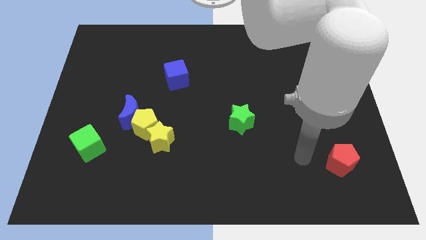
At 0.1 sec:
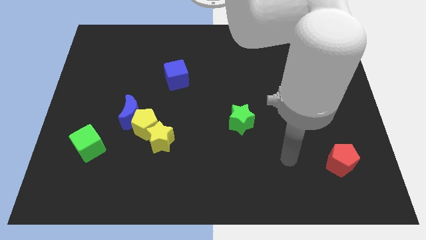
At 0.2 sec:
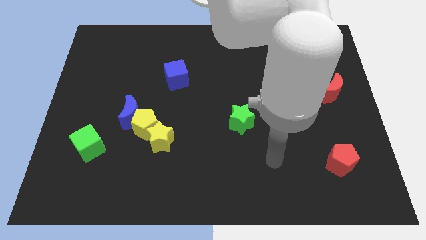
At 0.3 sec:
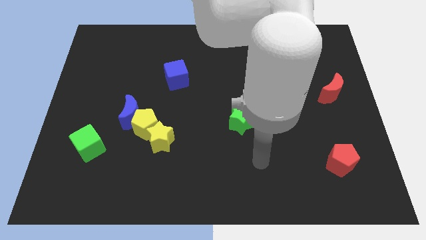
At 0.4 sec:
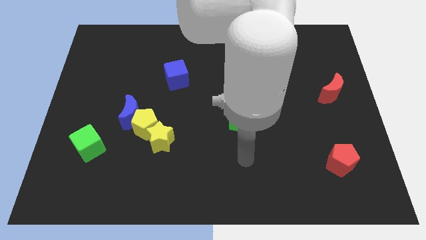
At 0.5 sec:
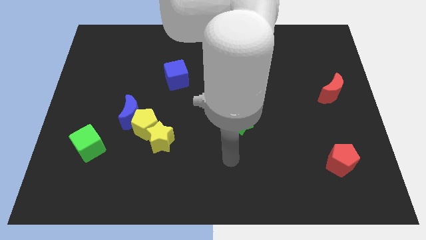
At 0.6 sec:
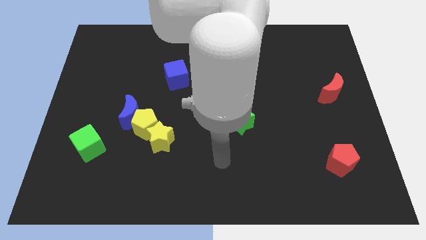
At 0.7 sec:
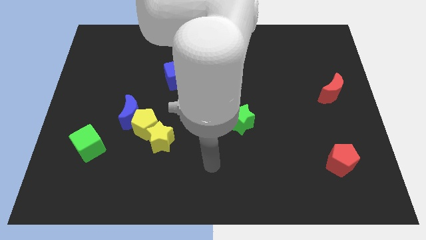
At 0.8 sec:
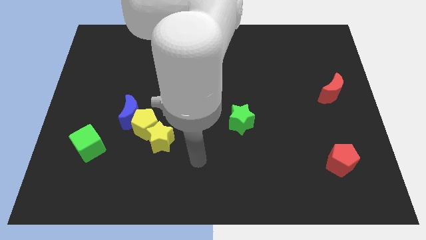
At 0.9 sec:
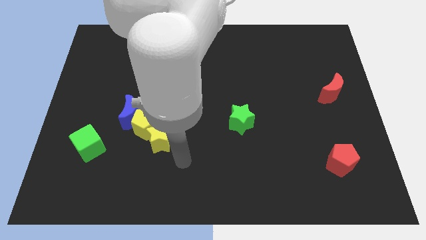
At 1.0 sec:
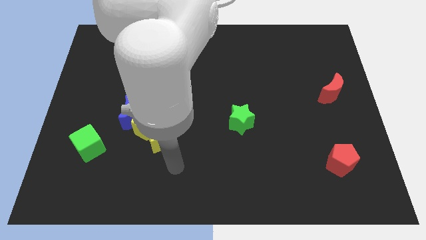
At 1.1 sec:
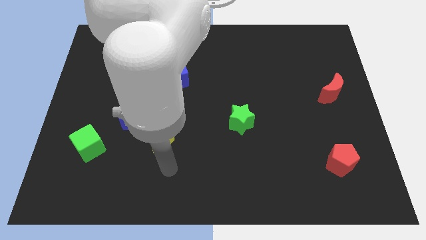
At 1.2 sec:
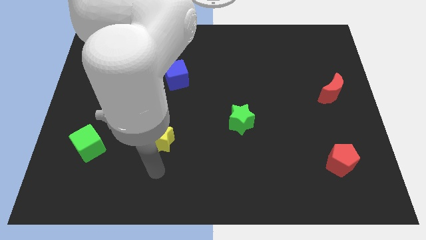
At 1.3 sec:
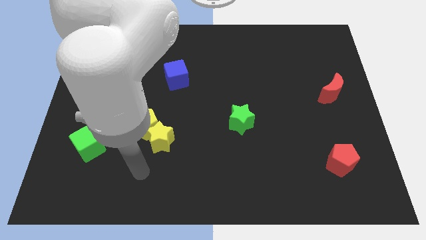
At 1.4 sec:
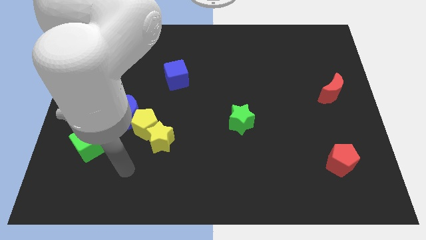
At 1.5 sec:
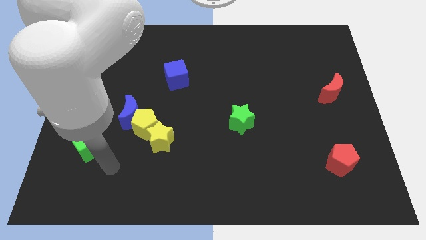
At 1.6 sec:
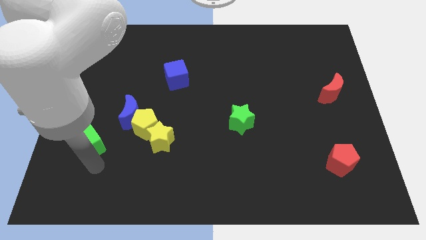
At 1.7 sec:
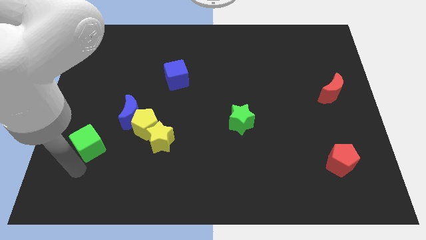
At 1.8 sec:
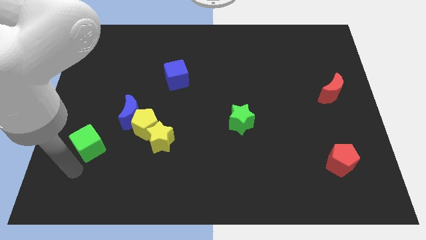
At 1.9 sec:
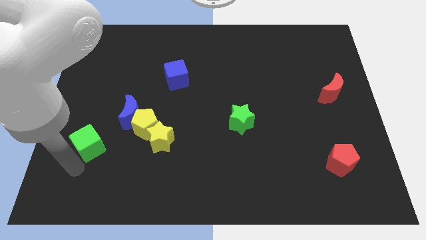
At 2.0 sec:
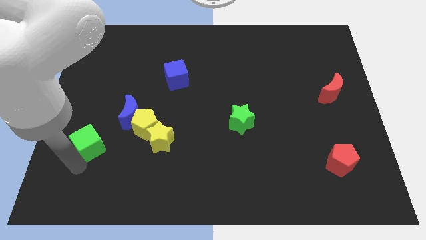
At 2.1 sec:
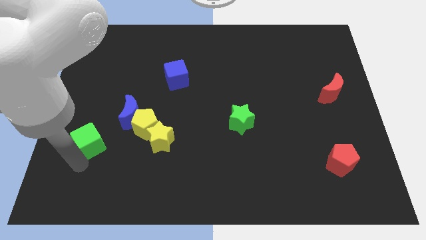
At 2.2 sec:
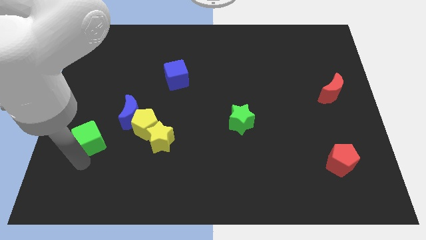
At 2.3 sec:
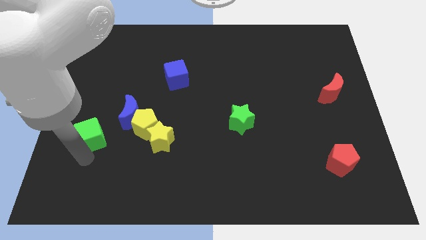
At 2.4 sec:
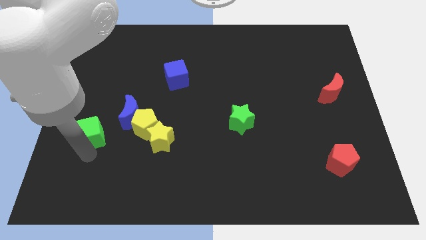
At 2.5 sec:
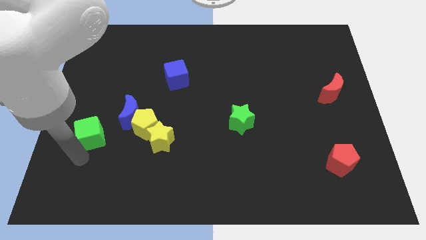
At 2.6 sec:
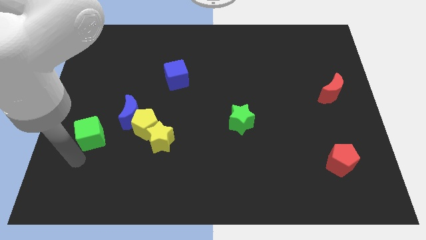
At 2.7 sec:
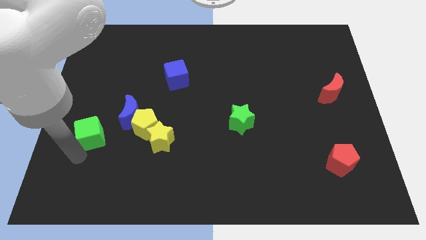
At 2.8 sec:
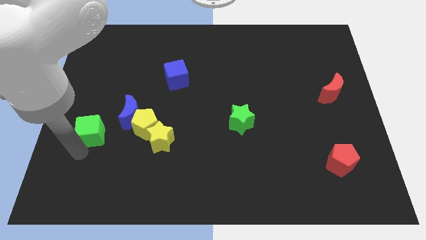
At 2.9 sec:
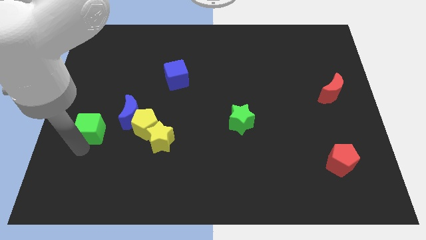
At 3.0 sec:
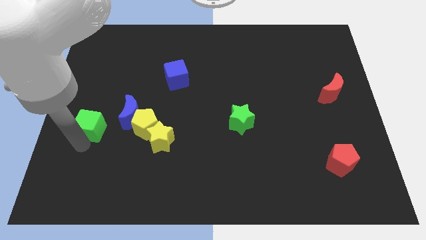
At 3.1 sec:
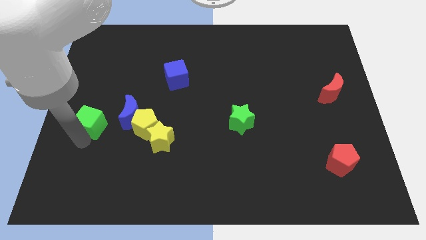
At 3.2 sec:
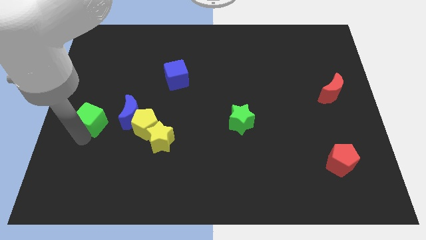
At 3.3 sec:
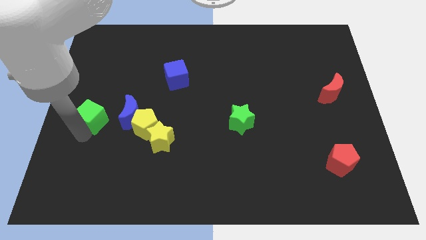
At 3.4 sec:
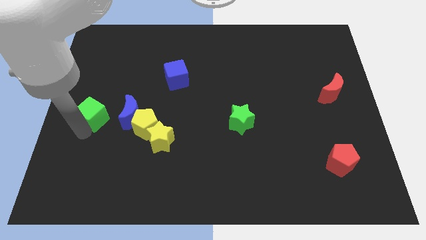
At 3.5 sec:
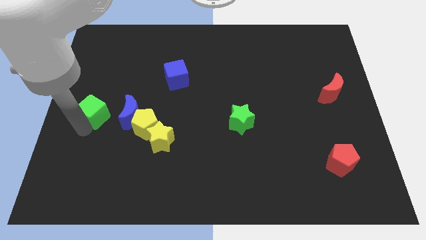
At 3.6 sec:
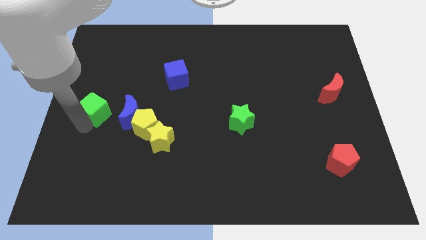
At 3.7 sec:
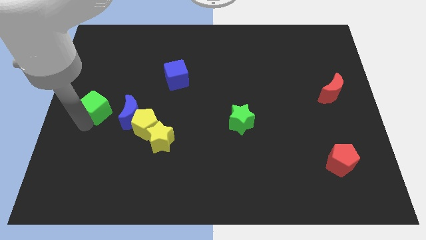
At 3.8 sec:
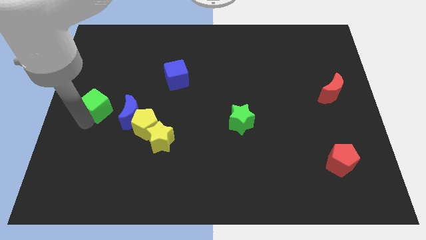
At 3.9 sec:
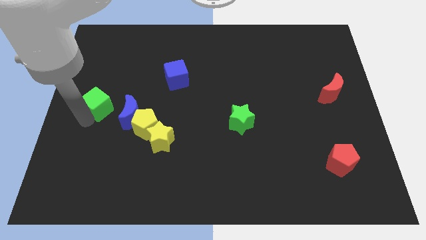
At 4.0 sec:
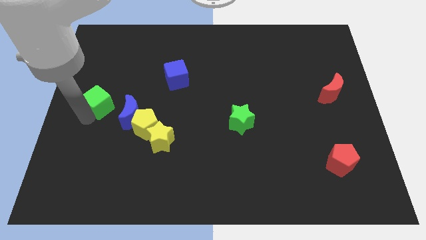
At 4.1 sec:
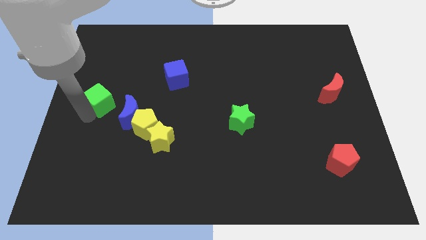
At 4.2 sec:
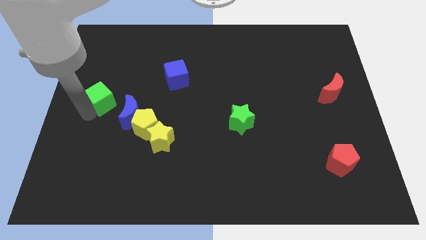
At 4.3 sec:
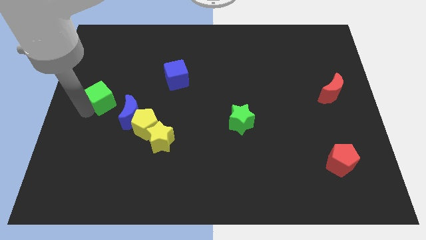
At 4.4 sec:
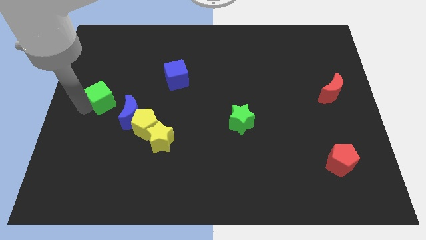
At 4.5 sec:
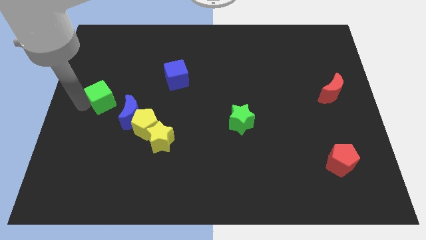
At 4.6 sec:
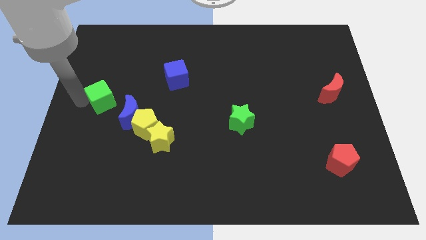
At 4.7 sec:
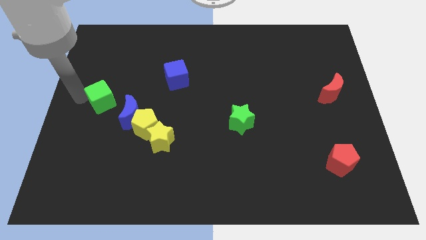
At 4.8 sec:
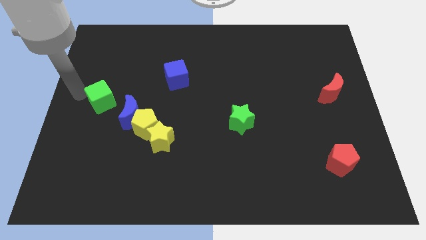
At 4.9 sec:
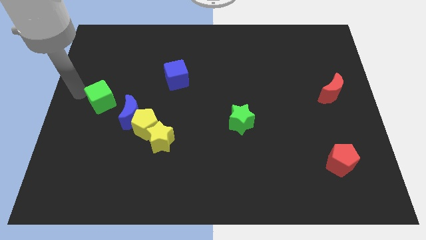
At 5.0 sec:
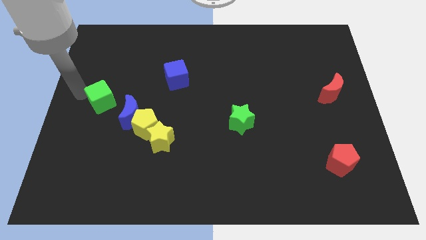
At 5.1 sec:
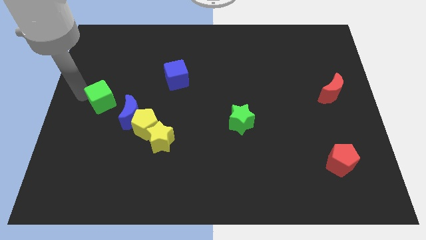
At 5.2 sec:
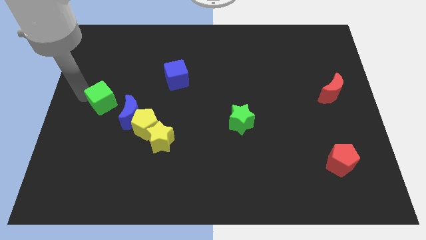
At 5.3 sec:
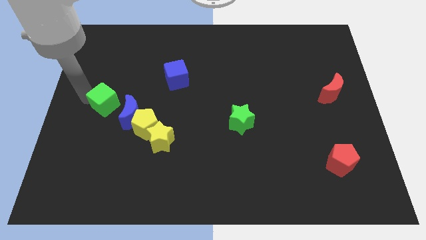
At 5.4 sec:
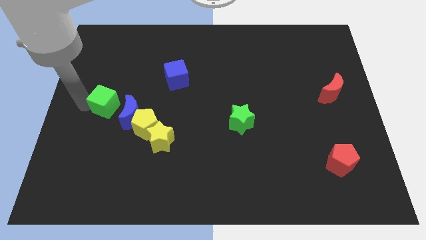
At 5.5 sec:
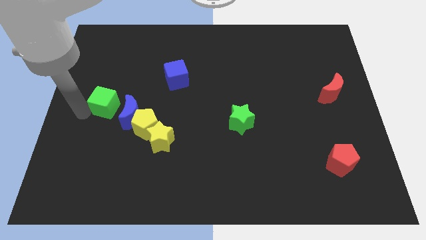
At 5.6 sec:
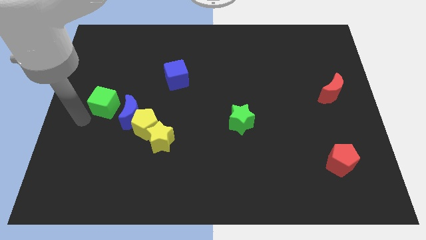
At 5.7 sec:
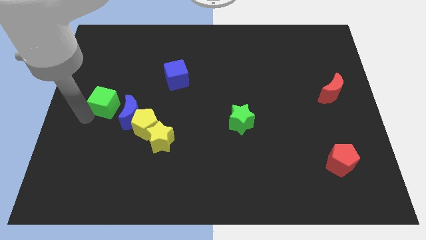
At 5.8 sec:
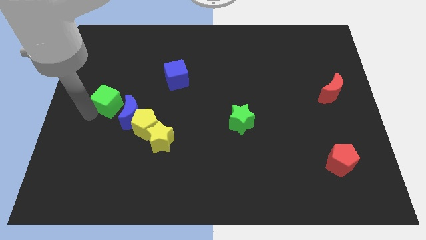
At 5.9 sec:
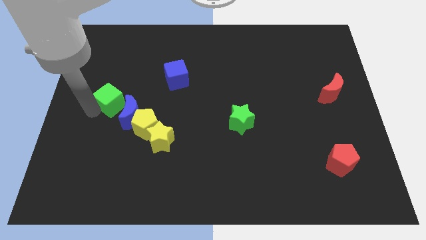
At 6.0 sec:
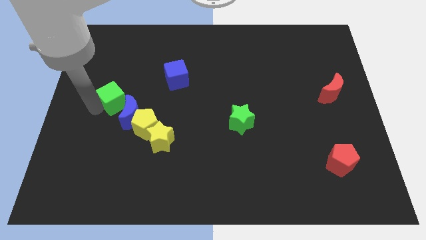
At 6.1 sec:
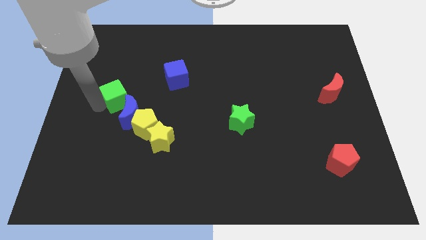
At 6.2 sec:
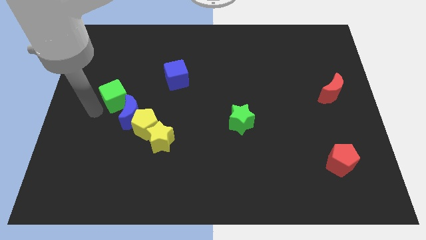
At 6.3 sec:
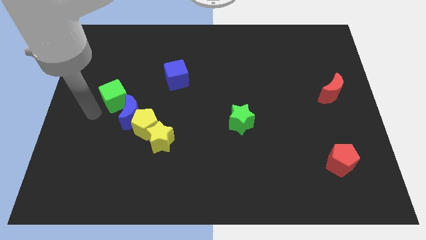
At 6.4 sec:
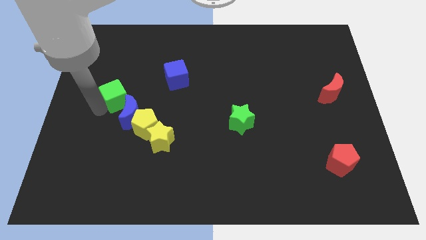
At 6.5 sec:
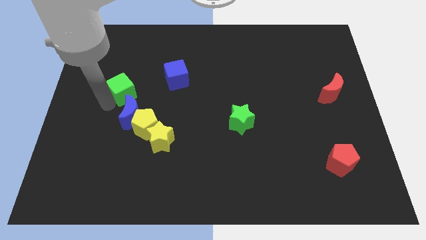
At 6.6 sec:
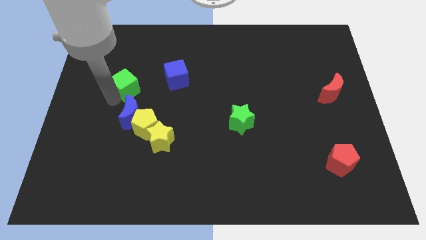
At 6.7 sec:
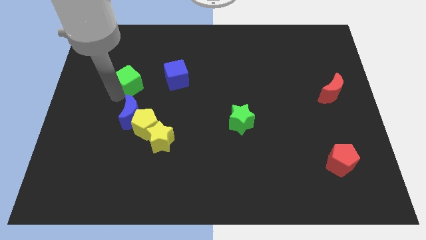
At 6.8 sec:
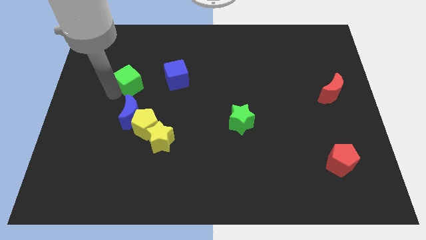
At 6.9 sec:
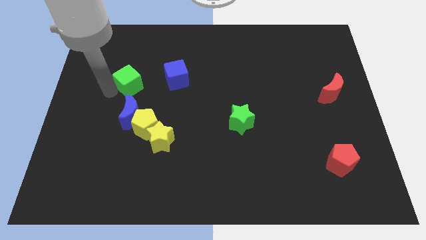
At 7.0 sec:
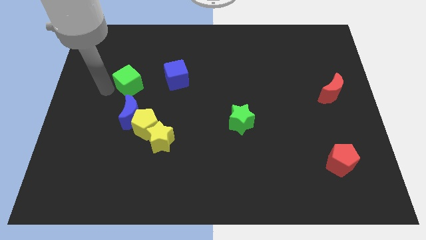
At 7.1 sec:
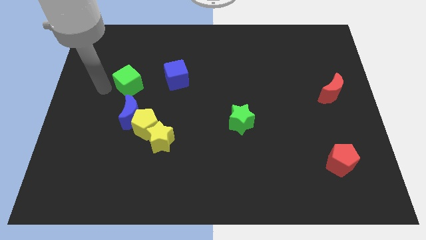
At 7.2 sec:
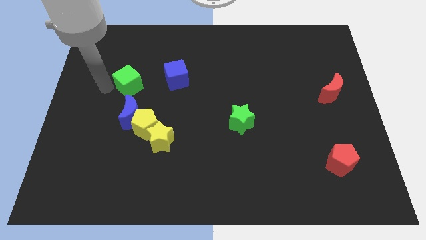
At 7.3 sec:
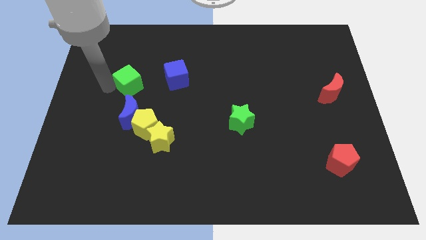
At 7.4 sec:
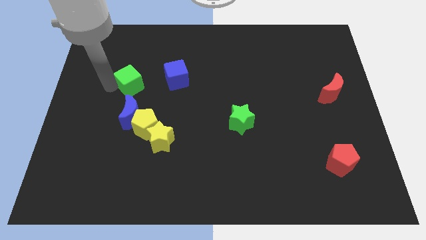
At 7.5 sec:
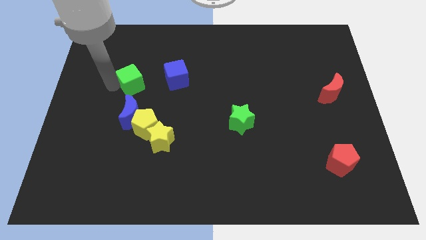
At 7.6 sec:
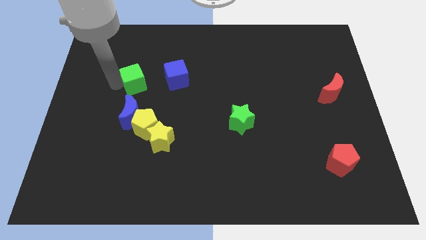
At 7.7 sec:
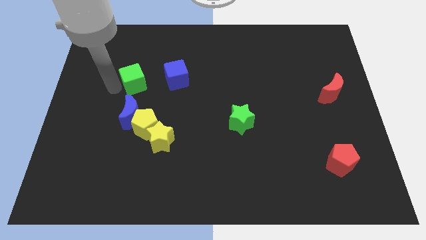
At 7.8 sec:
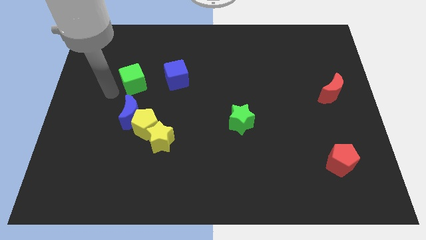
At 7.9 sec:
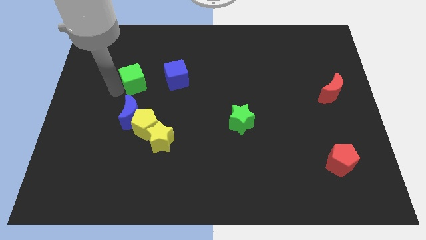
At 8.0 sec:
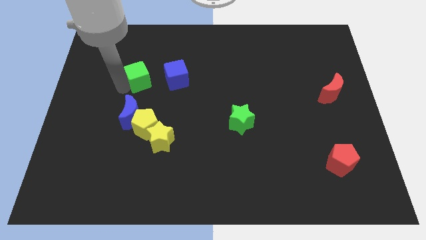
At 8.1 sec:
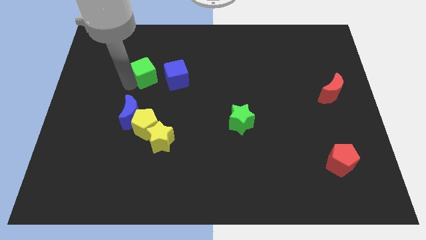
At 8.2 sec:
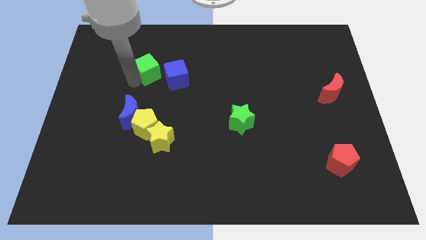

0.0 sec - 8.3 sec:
slide the green cube up and right diagonally
